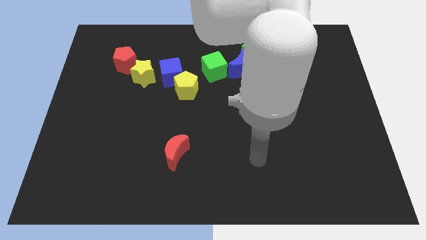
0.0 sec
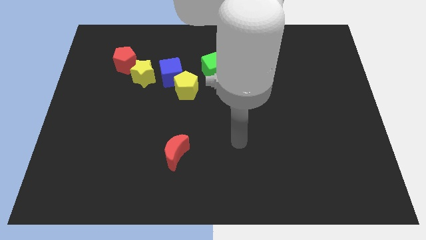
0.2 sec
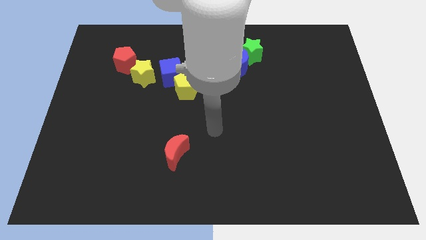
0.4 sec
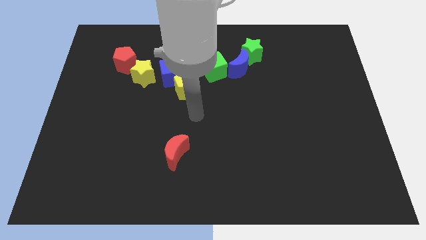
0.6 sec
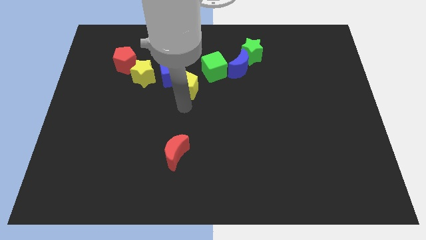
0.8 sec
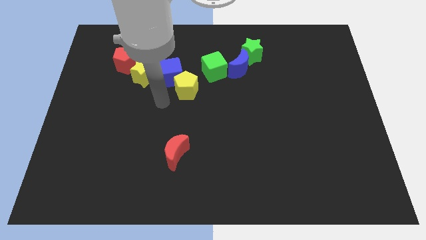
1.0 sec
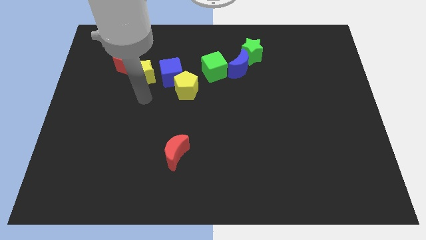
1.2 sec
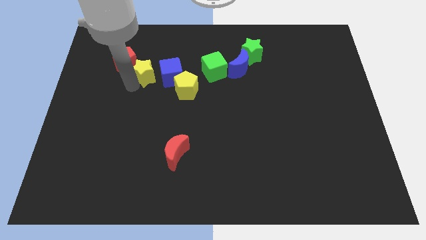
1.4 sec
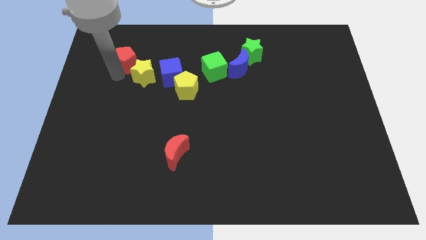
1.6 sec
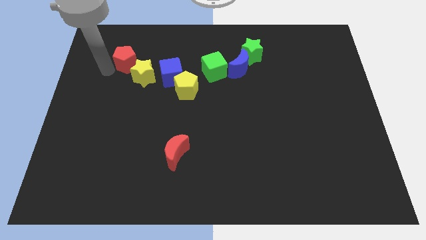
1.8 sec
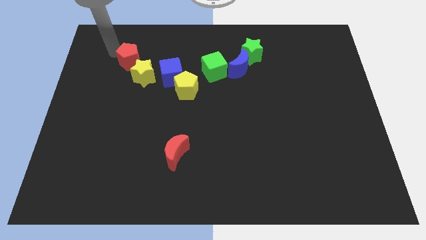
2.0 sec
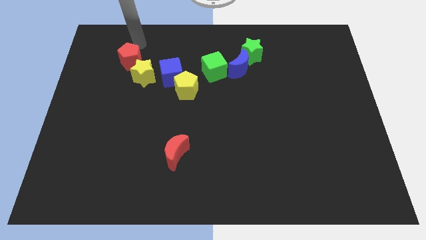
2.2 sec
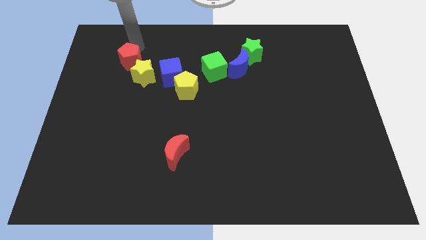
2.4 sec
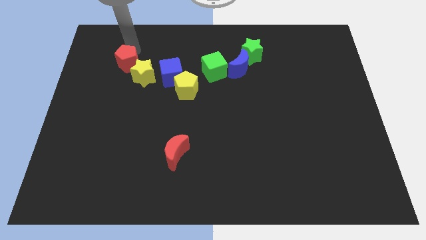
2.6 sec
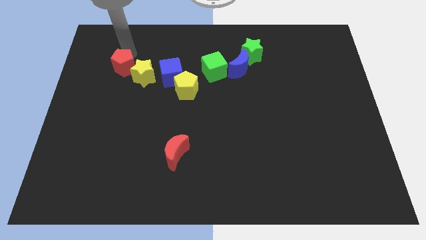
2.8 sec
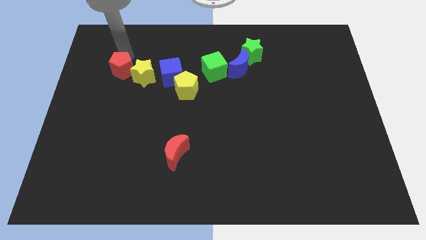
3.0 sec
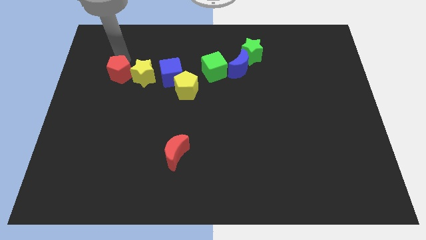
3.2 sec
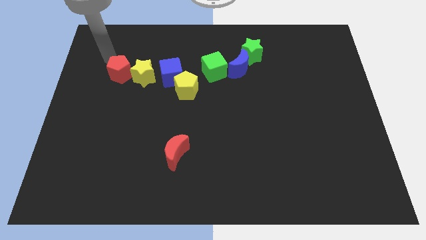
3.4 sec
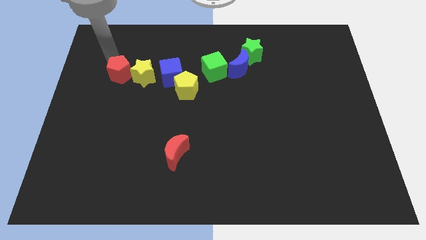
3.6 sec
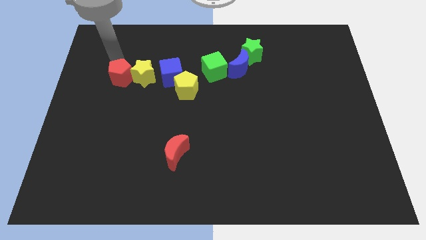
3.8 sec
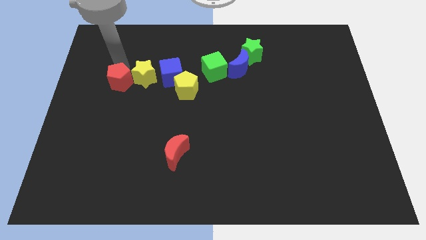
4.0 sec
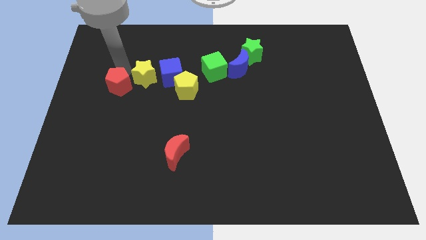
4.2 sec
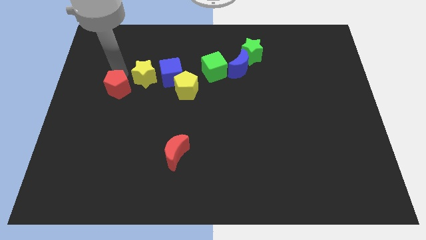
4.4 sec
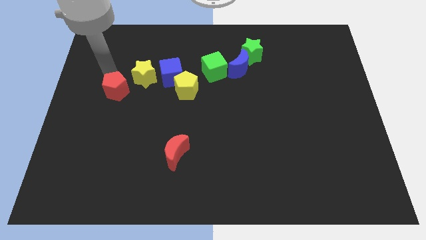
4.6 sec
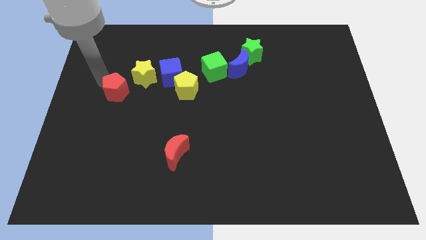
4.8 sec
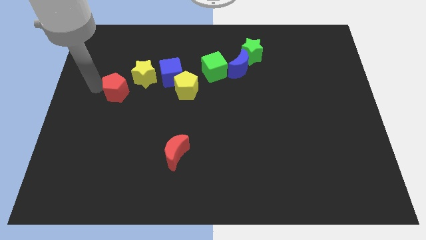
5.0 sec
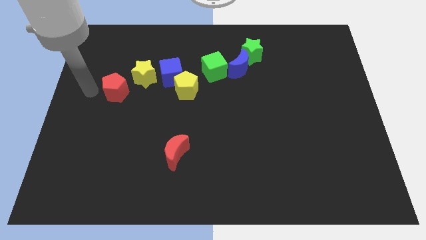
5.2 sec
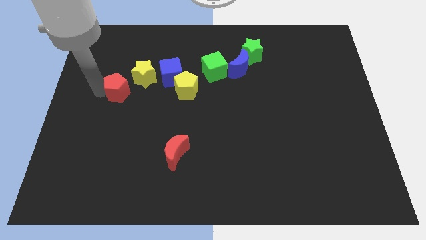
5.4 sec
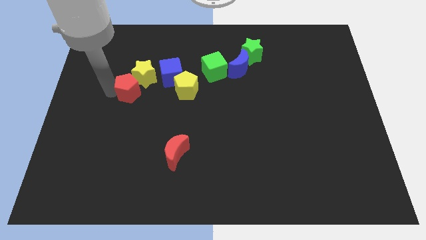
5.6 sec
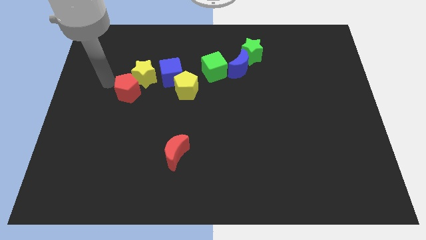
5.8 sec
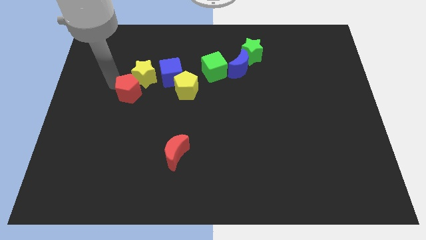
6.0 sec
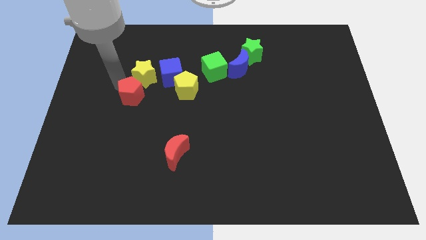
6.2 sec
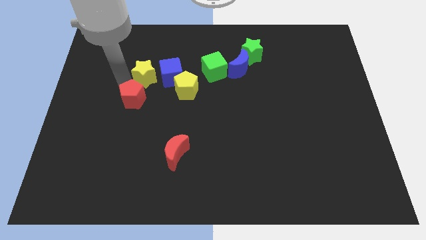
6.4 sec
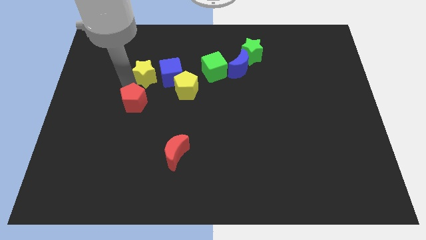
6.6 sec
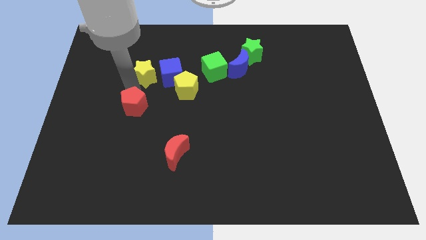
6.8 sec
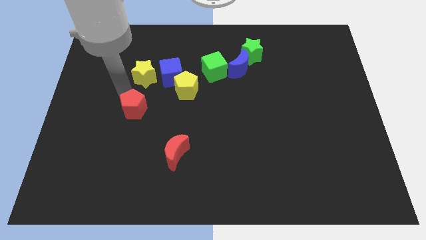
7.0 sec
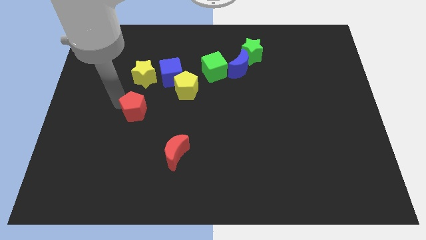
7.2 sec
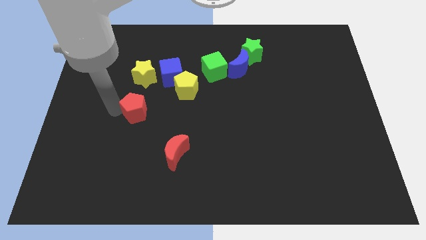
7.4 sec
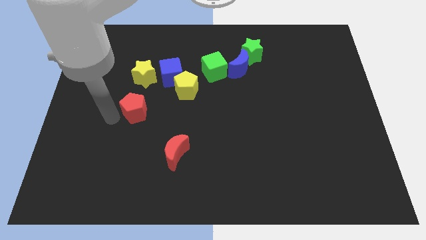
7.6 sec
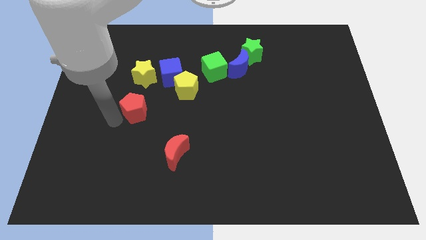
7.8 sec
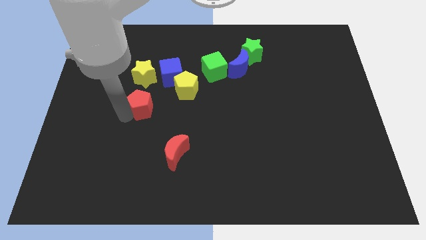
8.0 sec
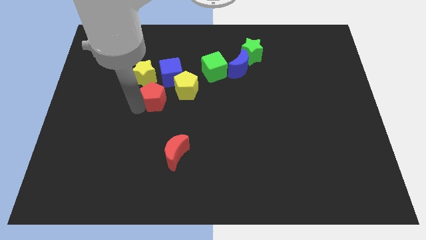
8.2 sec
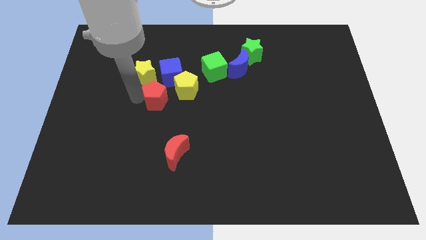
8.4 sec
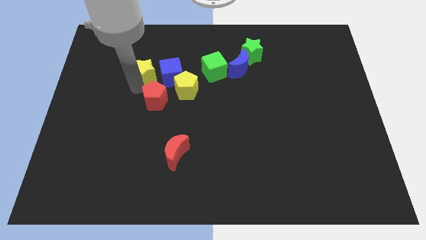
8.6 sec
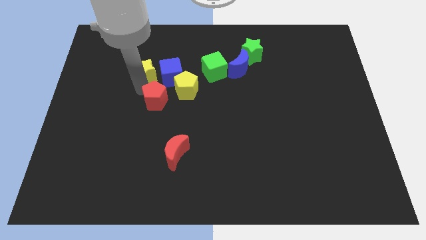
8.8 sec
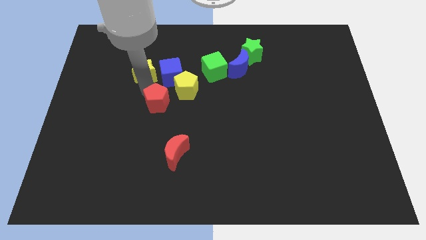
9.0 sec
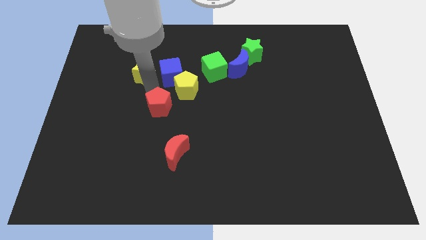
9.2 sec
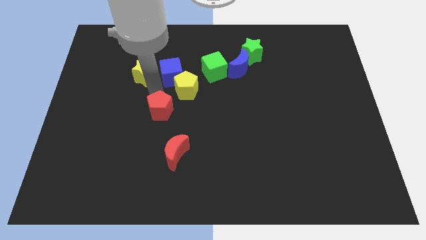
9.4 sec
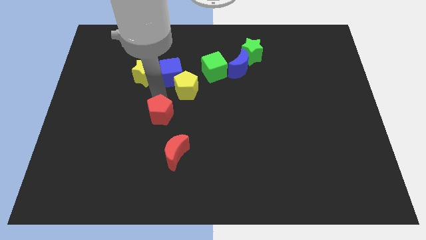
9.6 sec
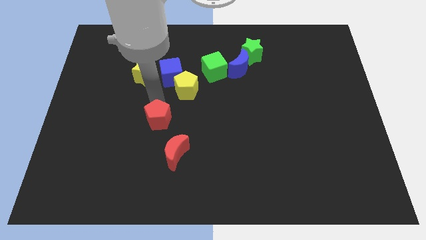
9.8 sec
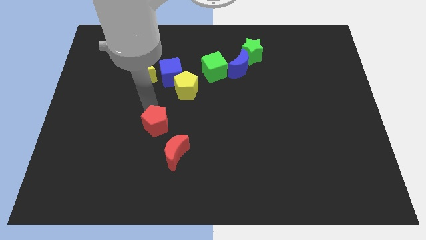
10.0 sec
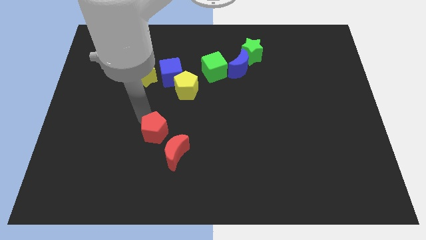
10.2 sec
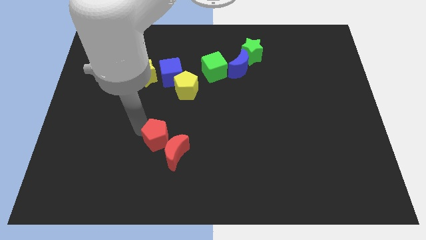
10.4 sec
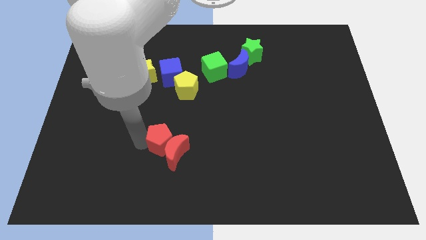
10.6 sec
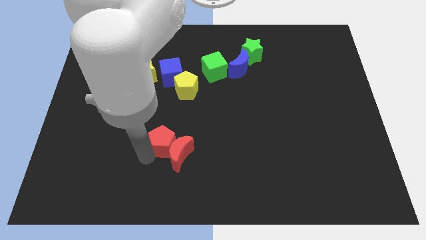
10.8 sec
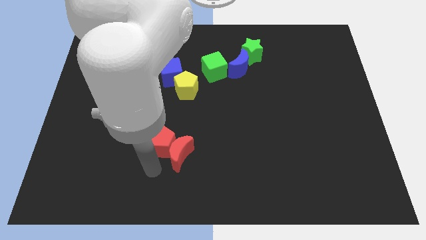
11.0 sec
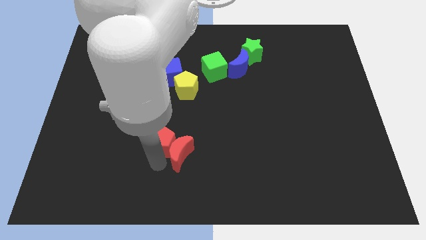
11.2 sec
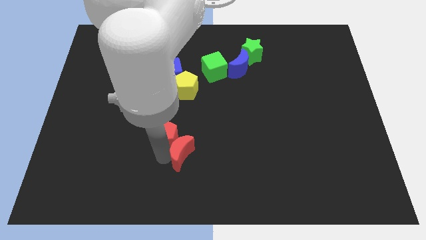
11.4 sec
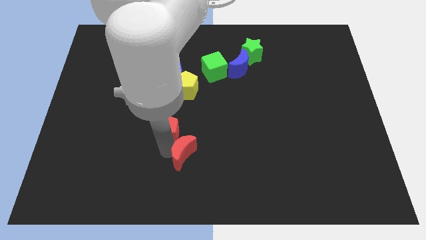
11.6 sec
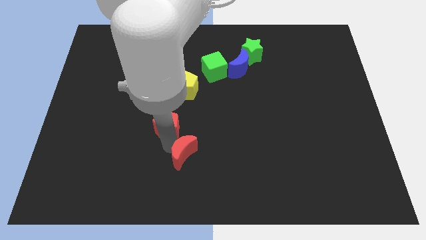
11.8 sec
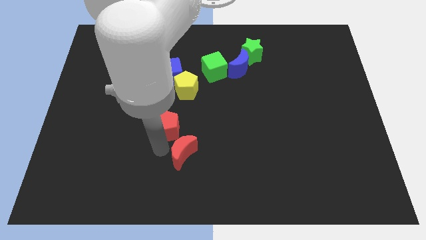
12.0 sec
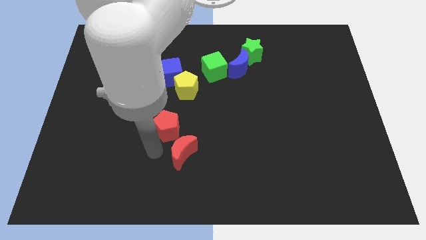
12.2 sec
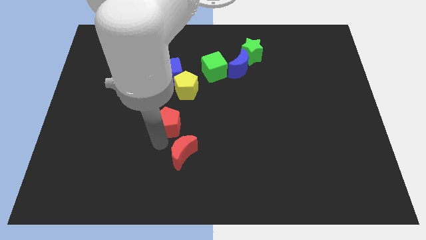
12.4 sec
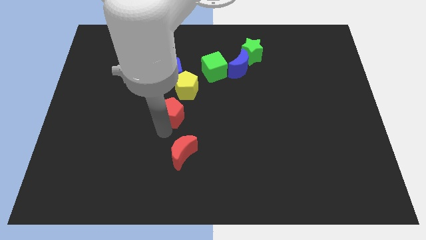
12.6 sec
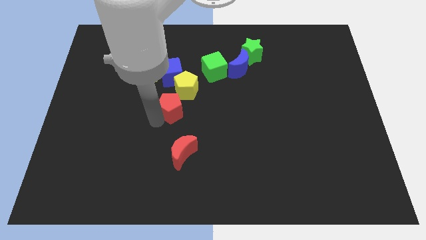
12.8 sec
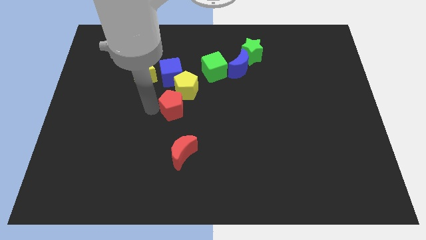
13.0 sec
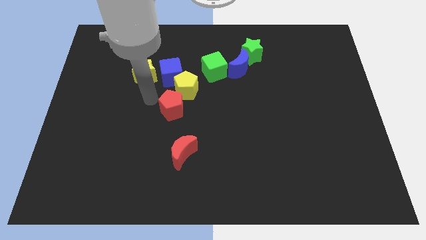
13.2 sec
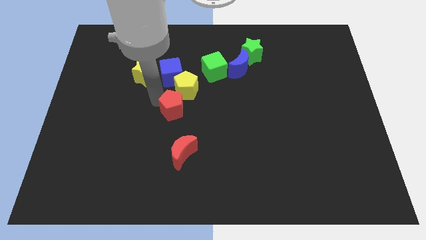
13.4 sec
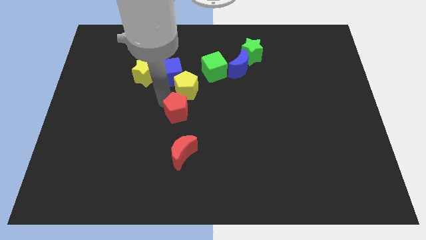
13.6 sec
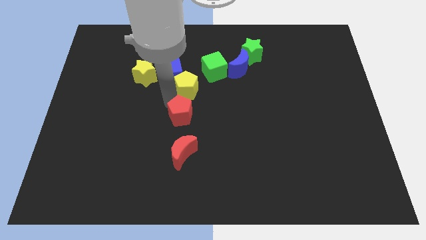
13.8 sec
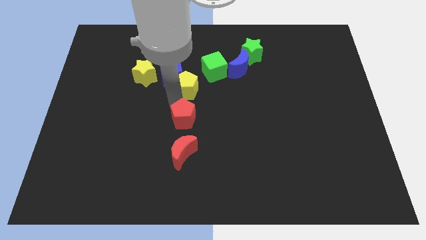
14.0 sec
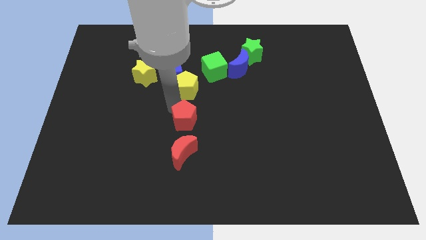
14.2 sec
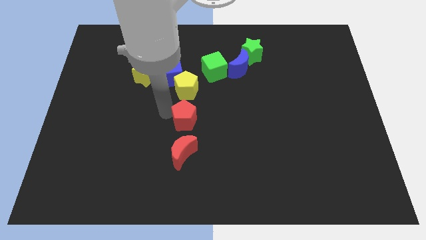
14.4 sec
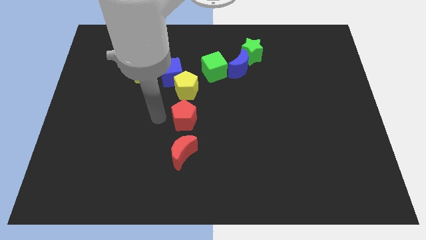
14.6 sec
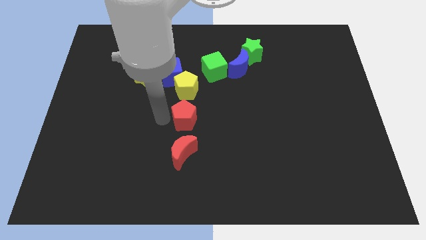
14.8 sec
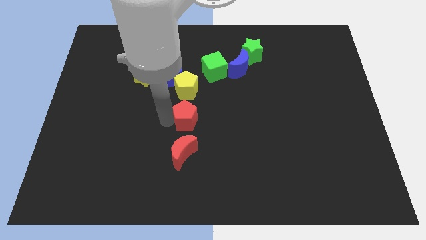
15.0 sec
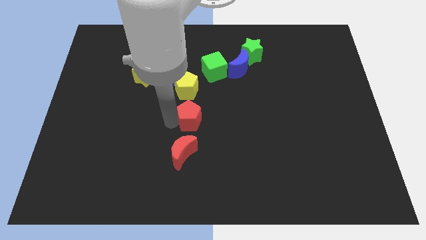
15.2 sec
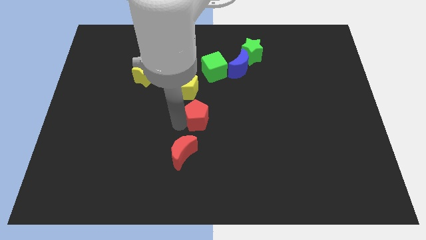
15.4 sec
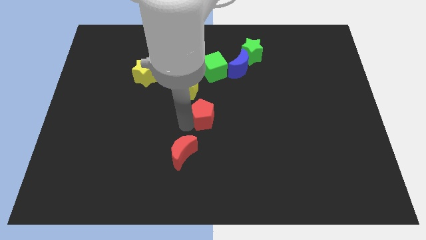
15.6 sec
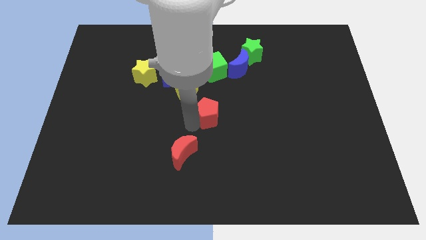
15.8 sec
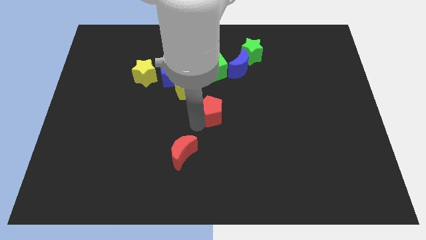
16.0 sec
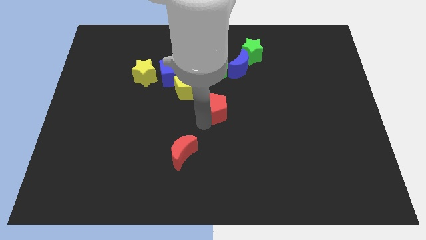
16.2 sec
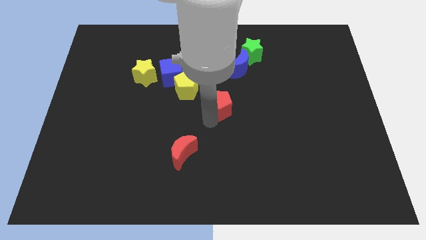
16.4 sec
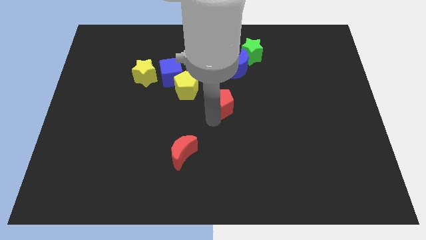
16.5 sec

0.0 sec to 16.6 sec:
move the red pentagon to the bottom side of the blue moon
